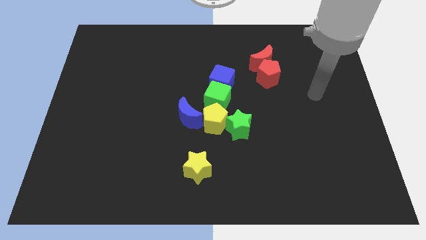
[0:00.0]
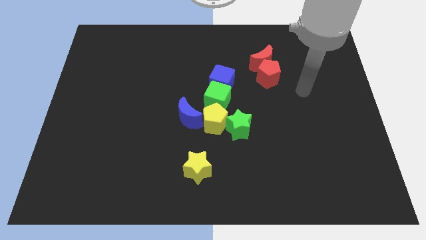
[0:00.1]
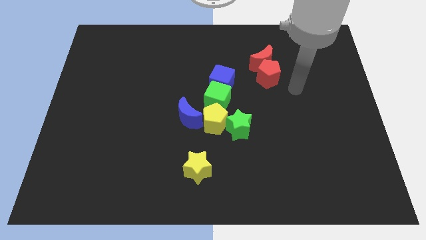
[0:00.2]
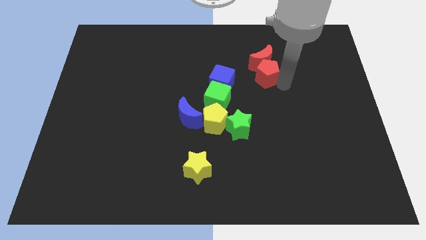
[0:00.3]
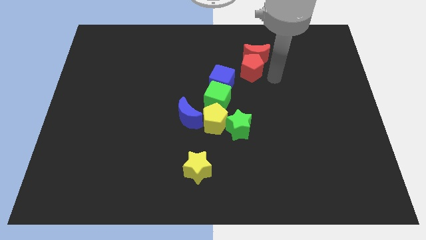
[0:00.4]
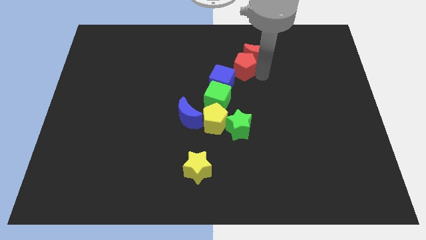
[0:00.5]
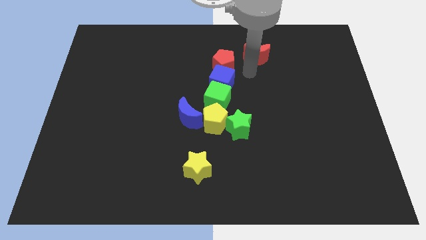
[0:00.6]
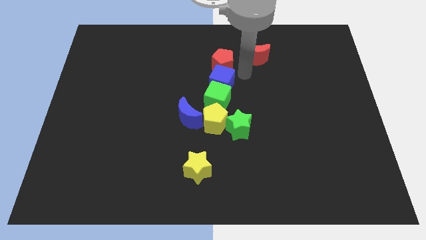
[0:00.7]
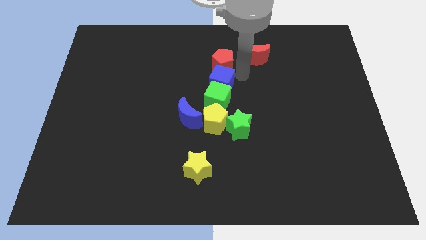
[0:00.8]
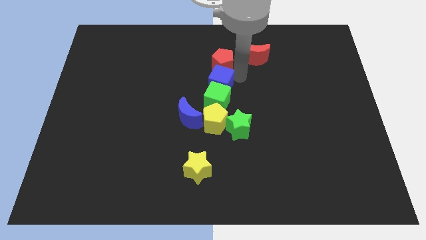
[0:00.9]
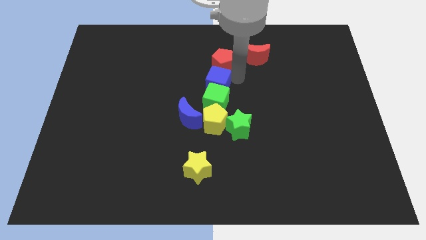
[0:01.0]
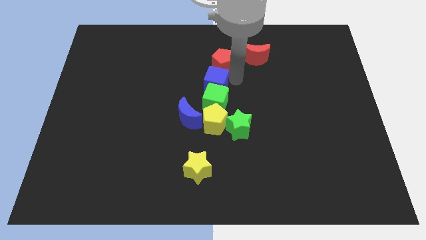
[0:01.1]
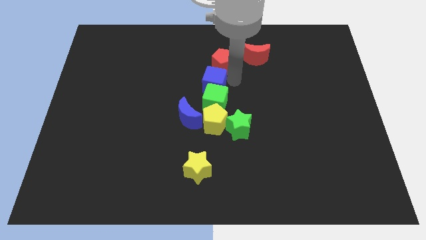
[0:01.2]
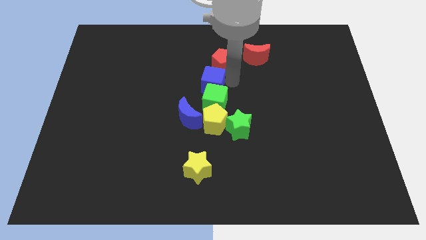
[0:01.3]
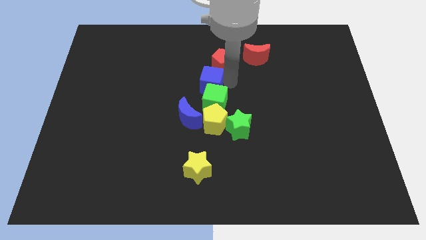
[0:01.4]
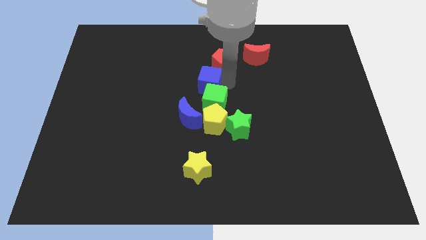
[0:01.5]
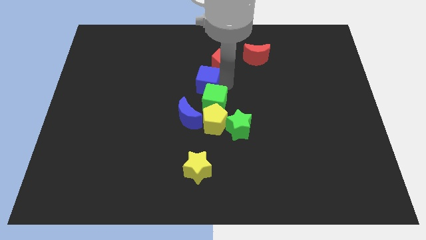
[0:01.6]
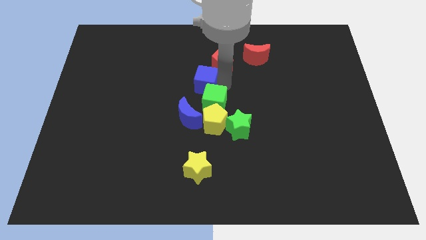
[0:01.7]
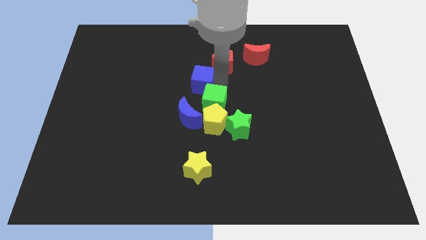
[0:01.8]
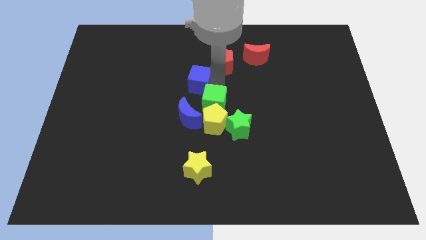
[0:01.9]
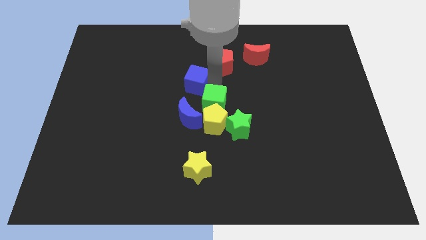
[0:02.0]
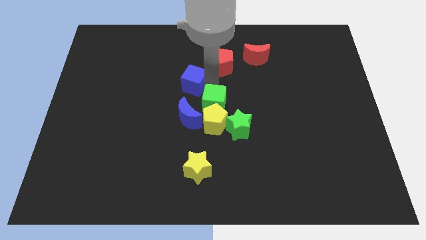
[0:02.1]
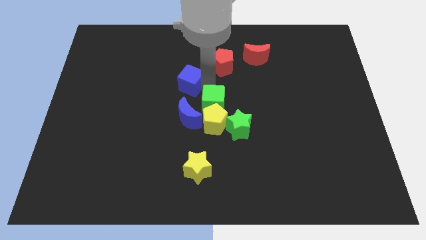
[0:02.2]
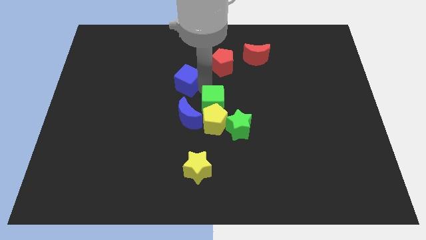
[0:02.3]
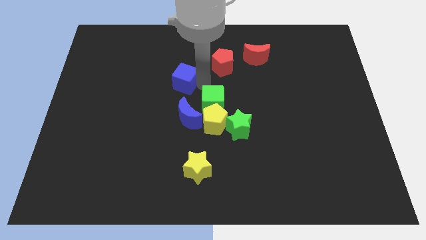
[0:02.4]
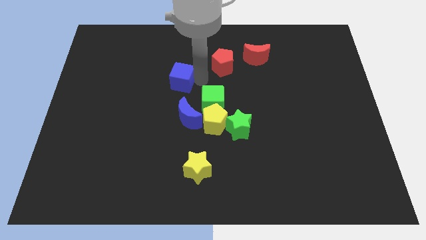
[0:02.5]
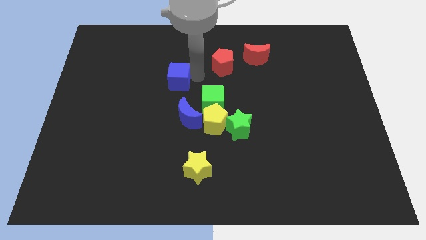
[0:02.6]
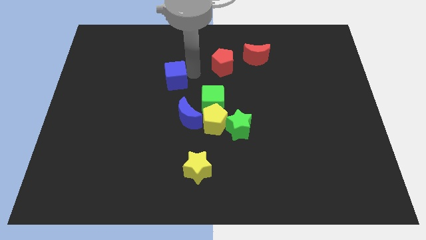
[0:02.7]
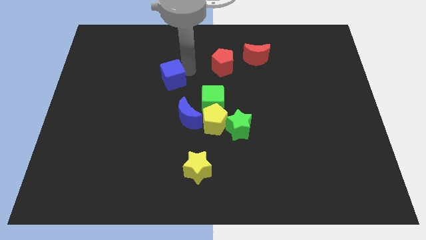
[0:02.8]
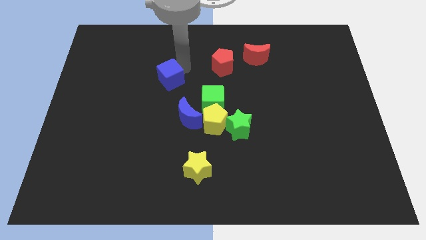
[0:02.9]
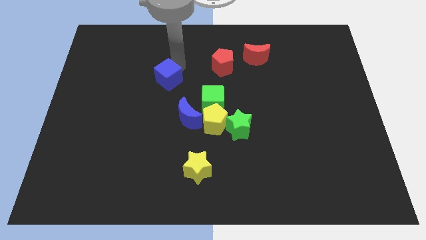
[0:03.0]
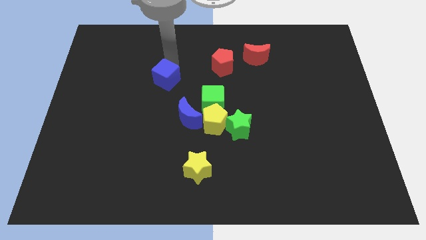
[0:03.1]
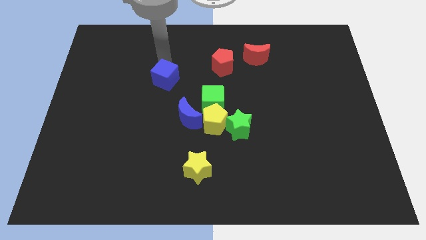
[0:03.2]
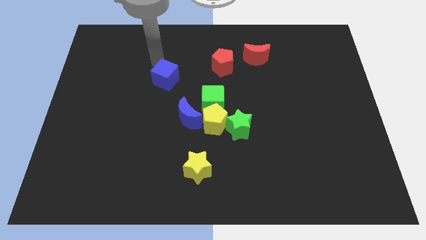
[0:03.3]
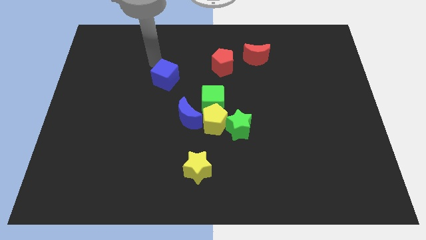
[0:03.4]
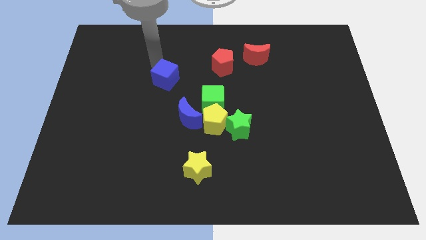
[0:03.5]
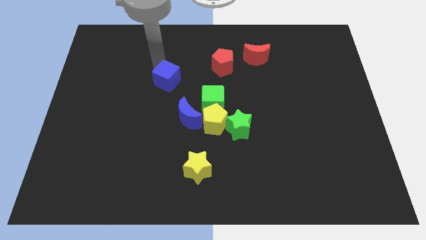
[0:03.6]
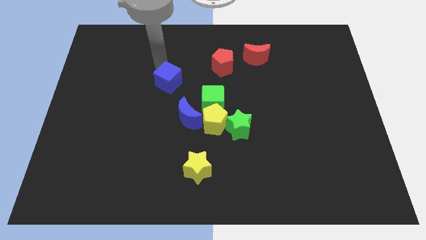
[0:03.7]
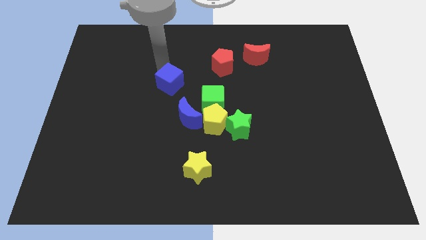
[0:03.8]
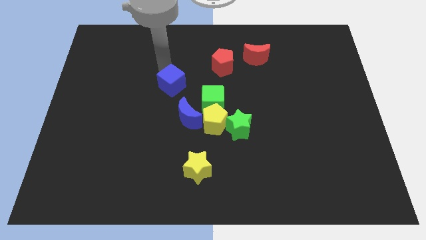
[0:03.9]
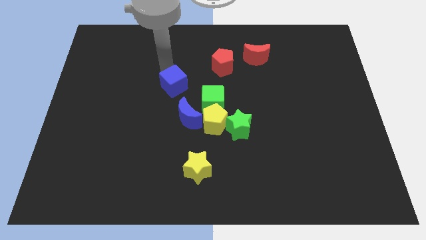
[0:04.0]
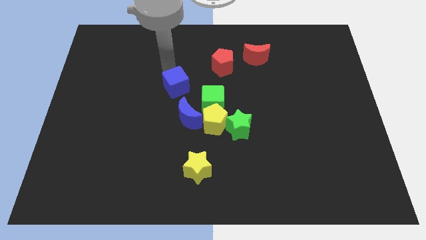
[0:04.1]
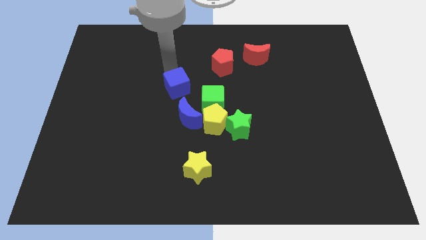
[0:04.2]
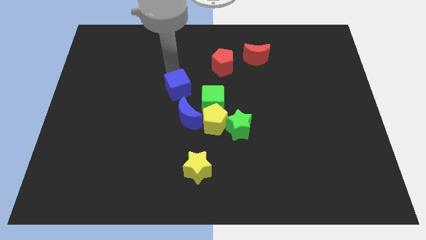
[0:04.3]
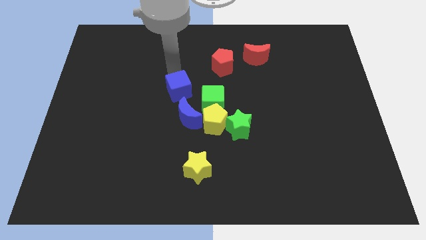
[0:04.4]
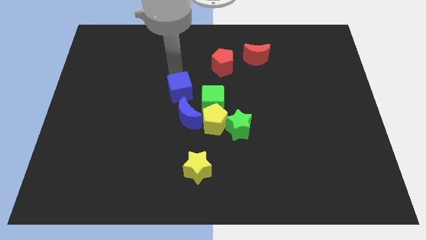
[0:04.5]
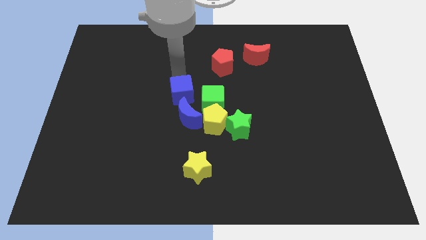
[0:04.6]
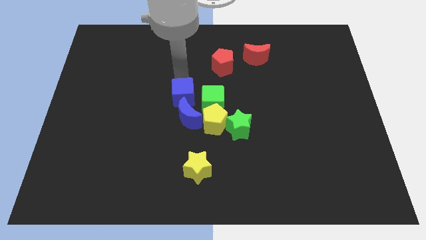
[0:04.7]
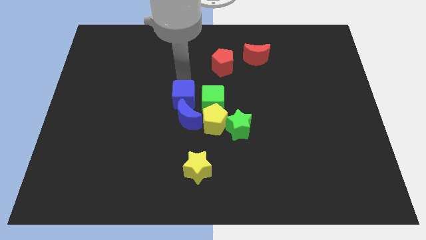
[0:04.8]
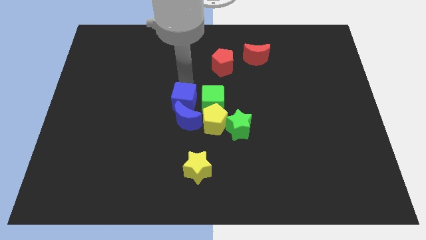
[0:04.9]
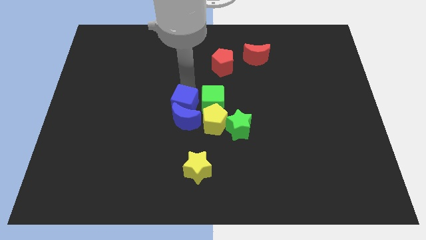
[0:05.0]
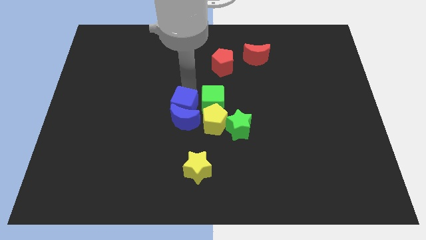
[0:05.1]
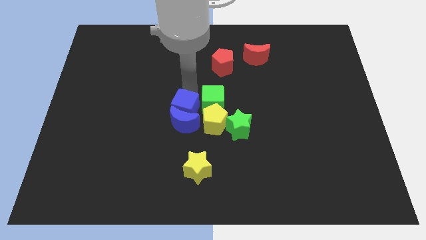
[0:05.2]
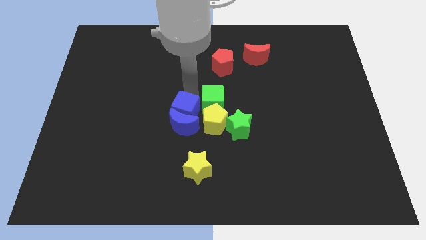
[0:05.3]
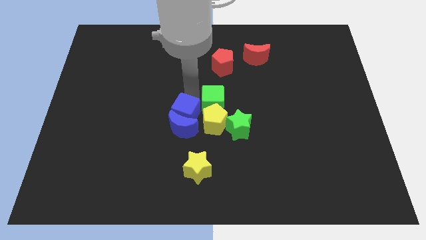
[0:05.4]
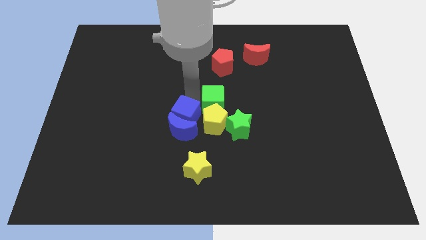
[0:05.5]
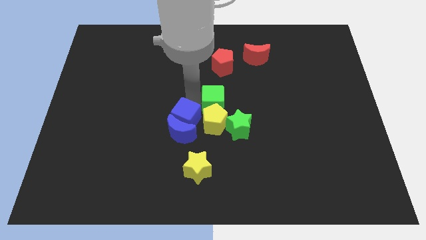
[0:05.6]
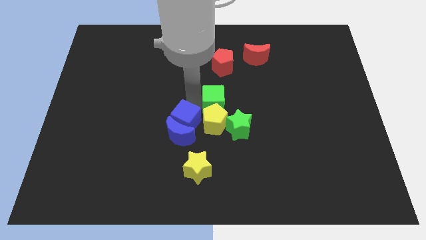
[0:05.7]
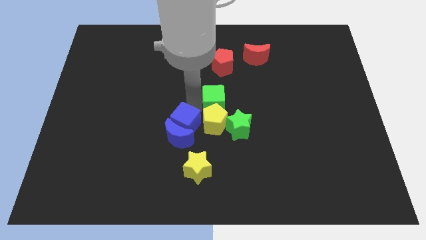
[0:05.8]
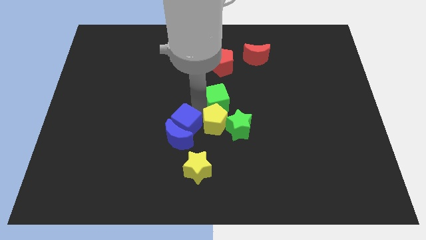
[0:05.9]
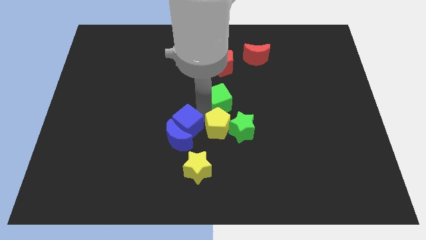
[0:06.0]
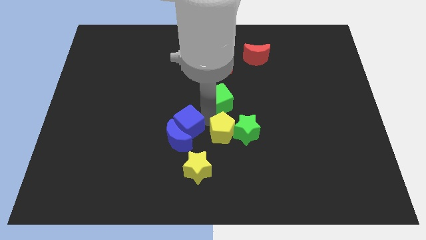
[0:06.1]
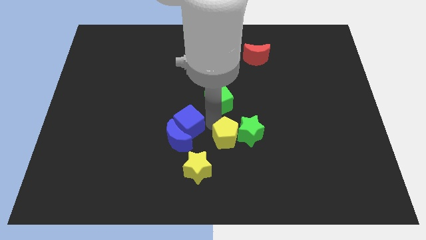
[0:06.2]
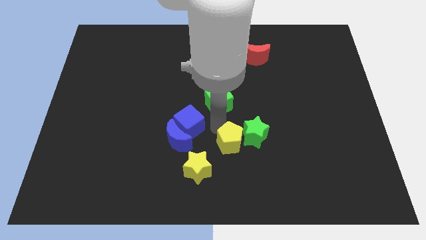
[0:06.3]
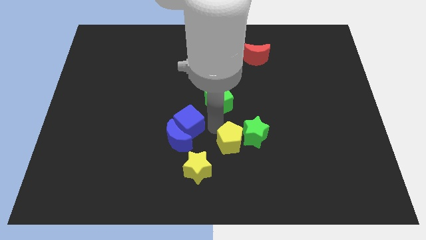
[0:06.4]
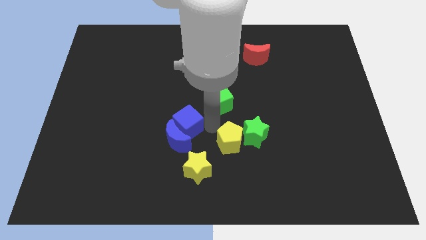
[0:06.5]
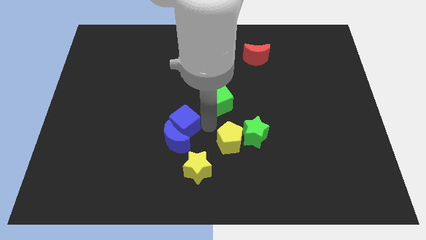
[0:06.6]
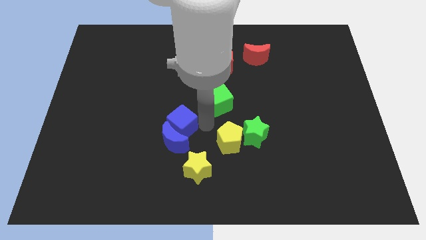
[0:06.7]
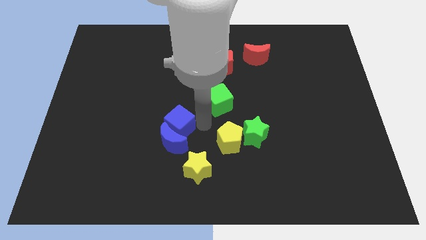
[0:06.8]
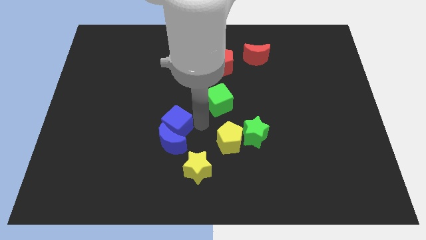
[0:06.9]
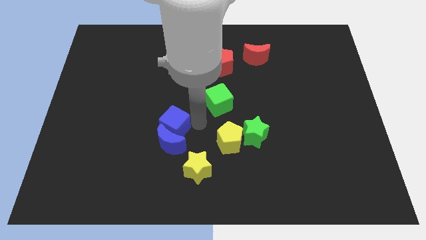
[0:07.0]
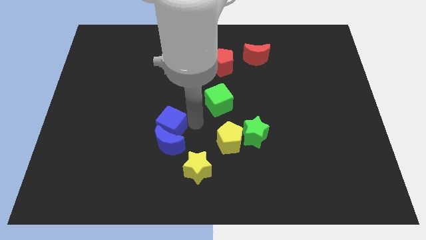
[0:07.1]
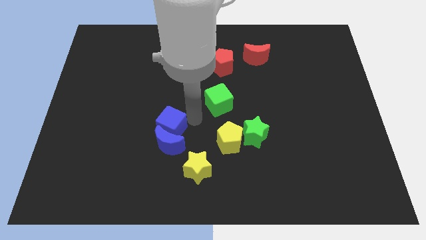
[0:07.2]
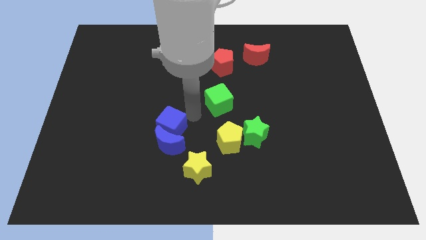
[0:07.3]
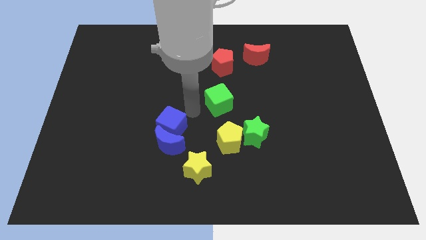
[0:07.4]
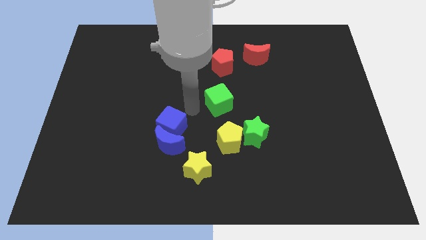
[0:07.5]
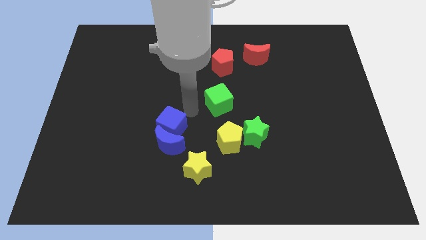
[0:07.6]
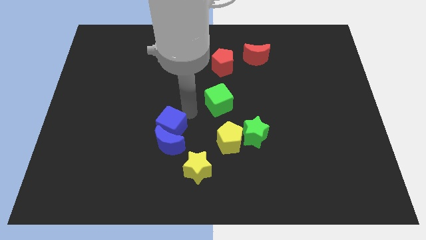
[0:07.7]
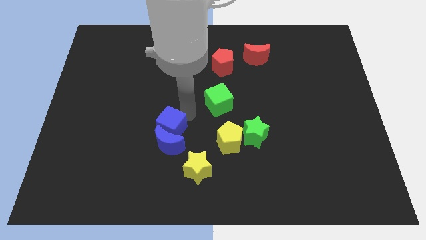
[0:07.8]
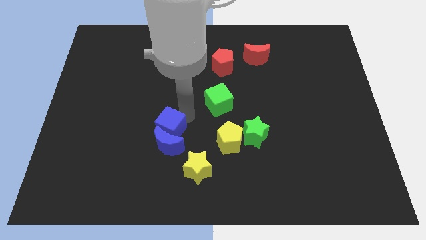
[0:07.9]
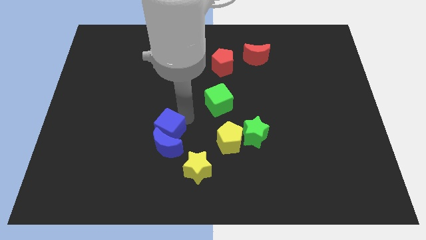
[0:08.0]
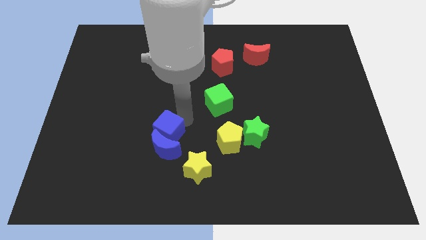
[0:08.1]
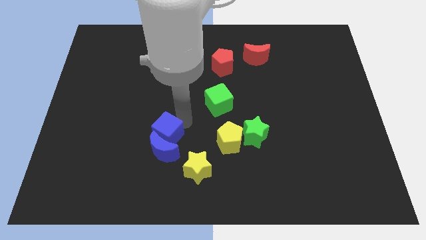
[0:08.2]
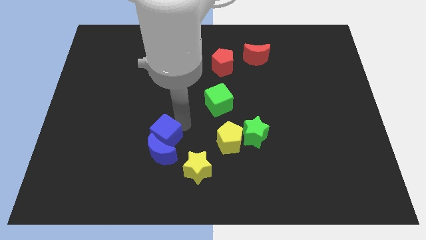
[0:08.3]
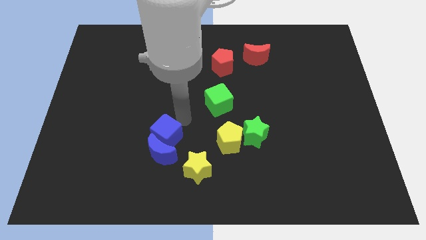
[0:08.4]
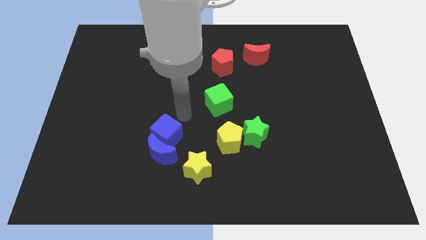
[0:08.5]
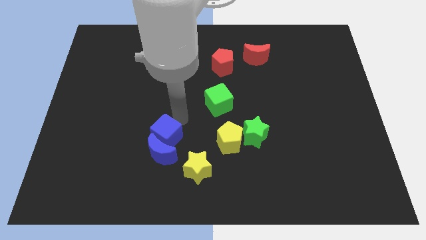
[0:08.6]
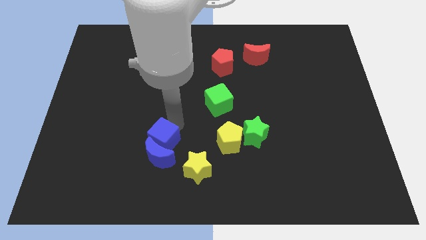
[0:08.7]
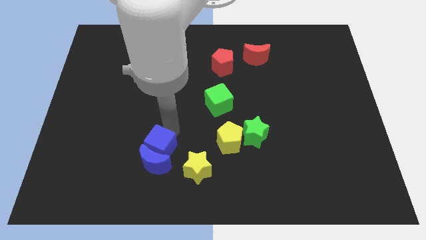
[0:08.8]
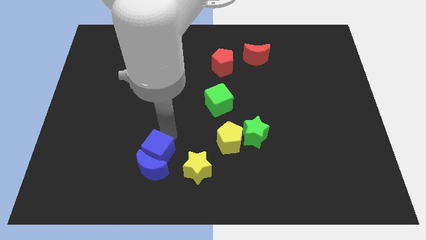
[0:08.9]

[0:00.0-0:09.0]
put the blue cube just left of the yellow star
